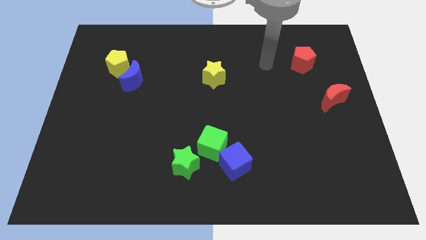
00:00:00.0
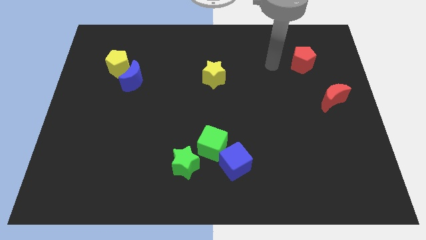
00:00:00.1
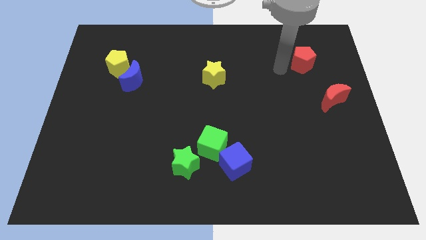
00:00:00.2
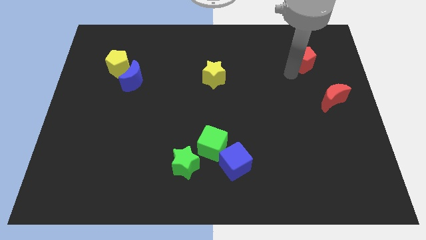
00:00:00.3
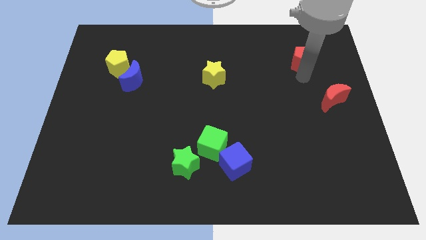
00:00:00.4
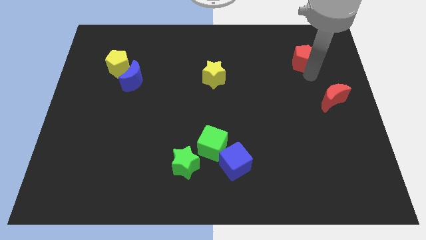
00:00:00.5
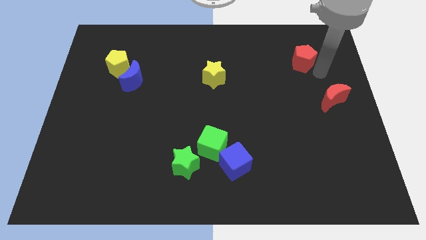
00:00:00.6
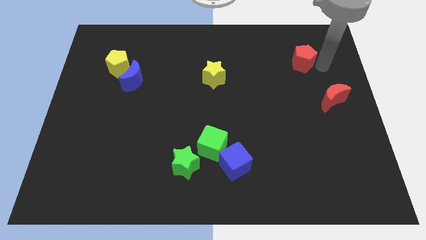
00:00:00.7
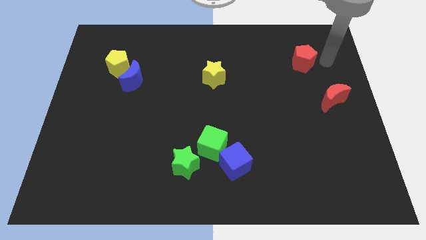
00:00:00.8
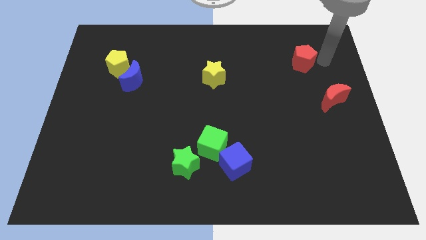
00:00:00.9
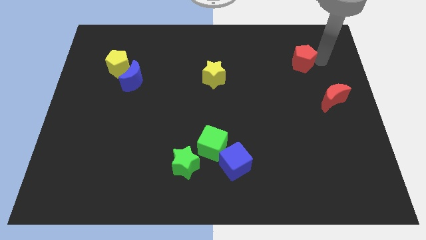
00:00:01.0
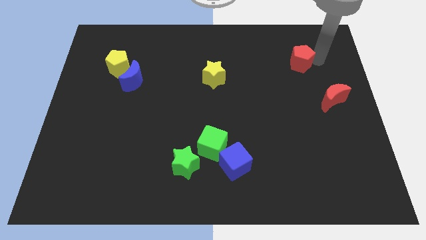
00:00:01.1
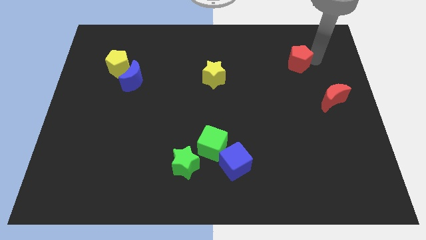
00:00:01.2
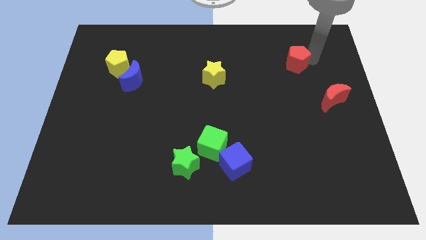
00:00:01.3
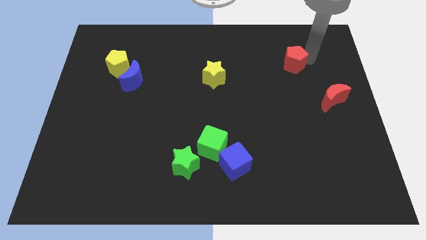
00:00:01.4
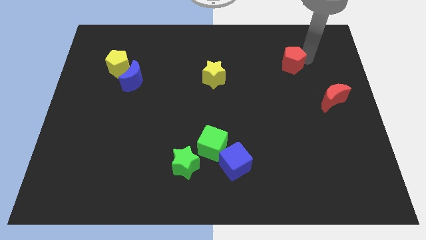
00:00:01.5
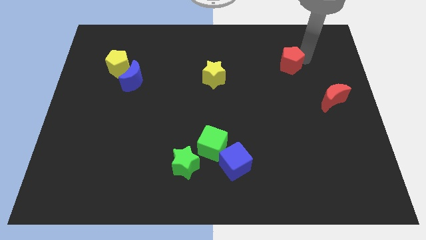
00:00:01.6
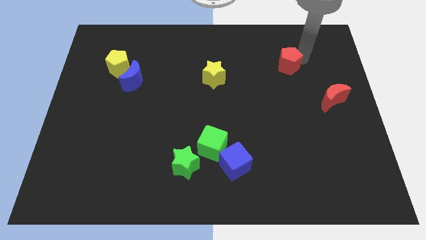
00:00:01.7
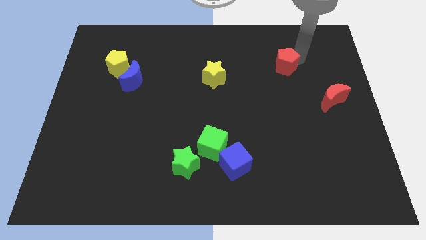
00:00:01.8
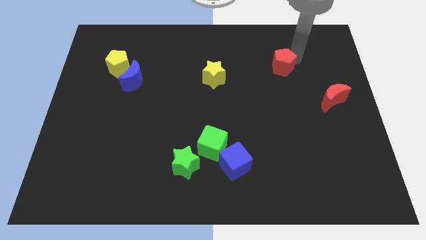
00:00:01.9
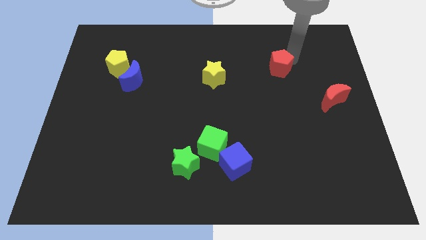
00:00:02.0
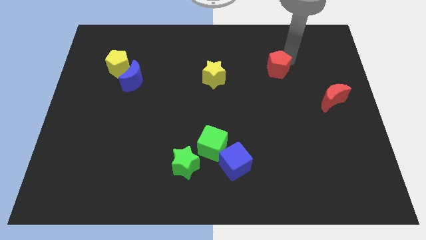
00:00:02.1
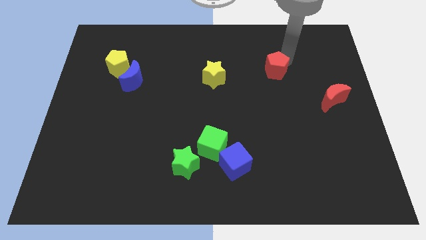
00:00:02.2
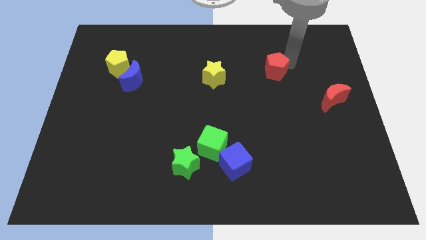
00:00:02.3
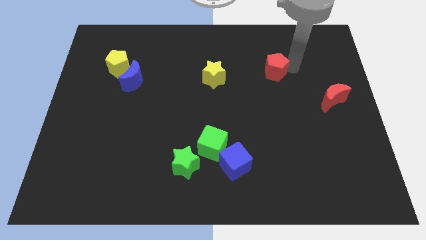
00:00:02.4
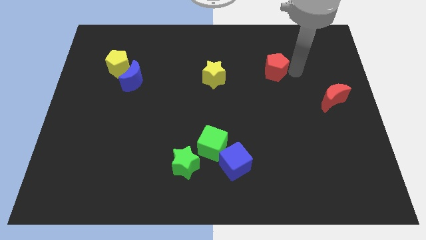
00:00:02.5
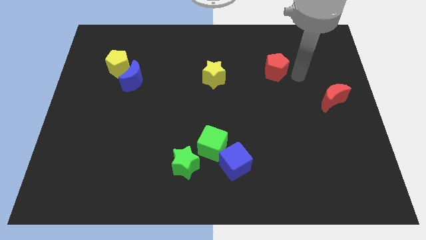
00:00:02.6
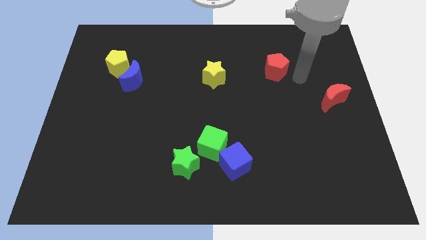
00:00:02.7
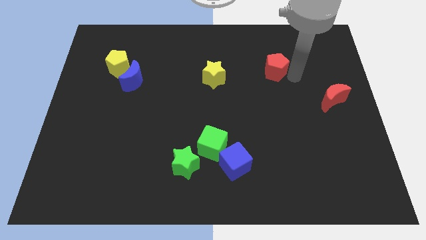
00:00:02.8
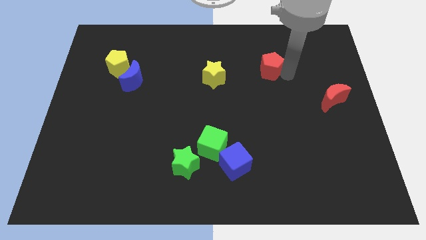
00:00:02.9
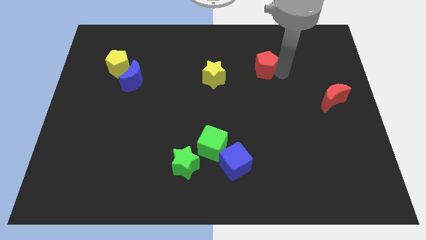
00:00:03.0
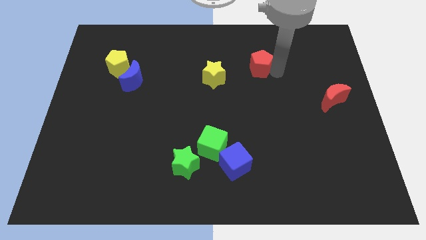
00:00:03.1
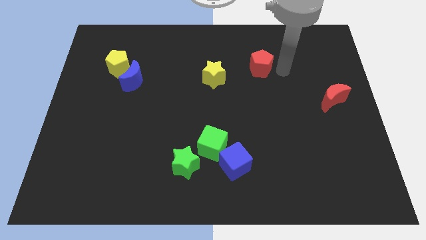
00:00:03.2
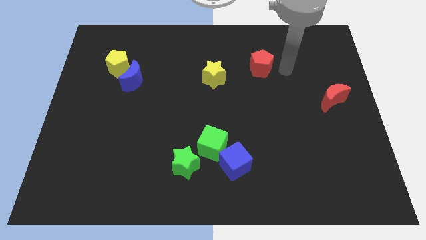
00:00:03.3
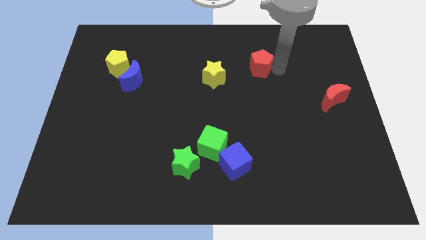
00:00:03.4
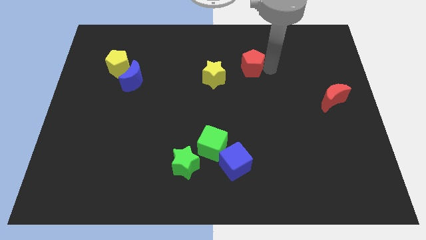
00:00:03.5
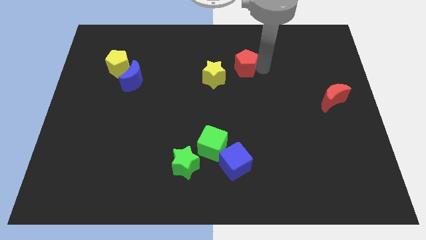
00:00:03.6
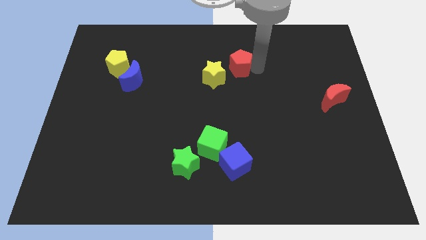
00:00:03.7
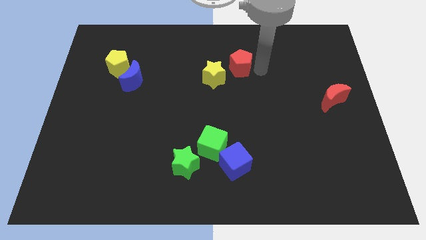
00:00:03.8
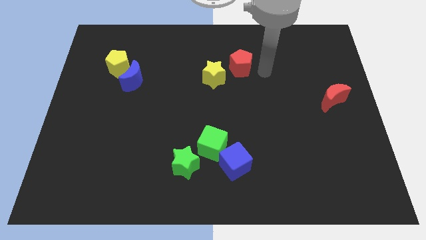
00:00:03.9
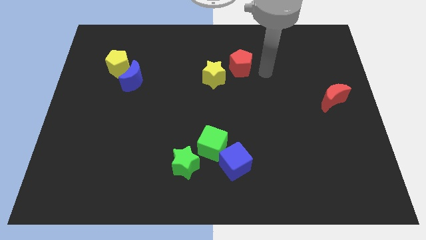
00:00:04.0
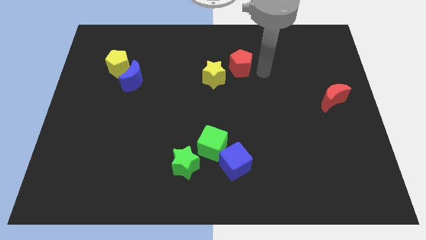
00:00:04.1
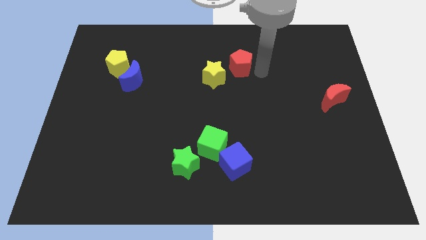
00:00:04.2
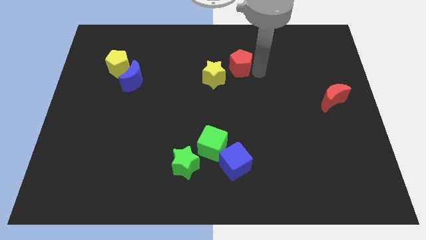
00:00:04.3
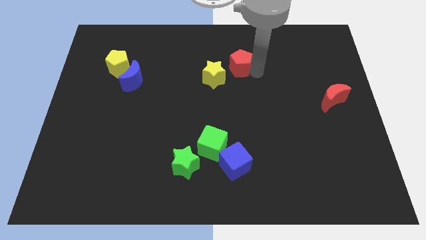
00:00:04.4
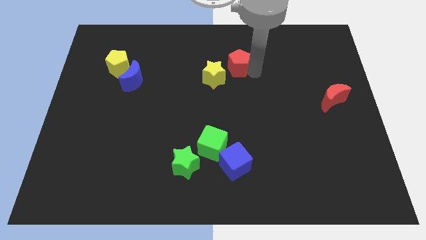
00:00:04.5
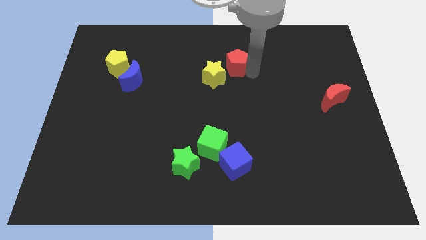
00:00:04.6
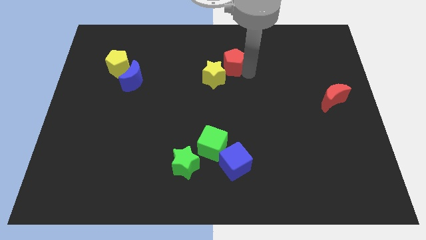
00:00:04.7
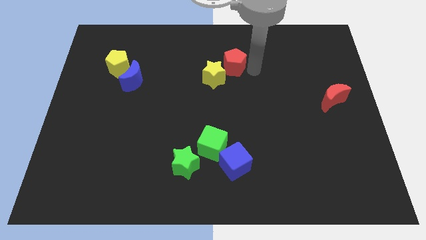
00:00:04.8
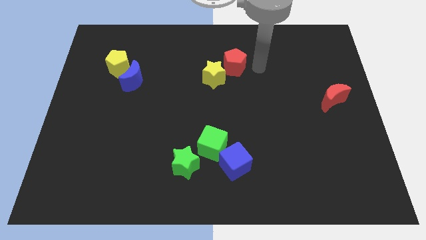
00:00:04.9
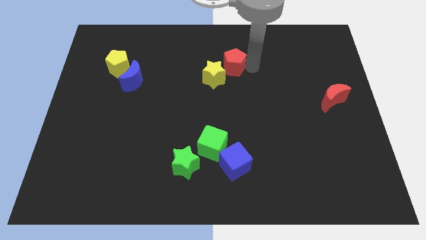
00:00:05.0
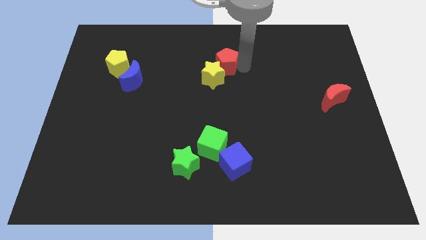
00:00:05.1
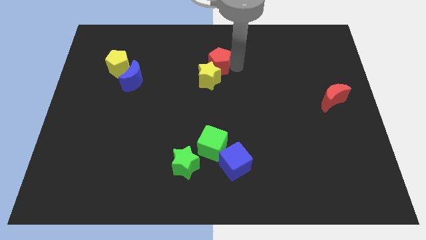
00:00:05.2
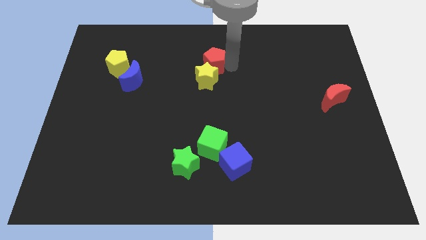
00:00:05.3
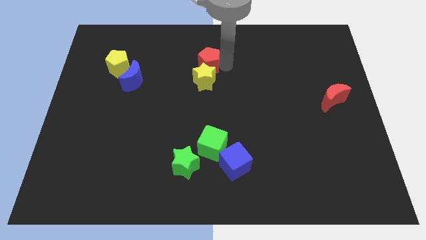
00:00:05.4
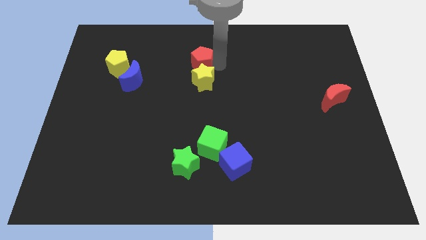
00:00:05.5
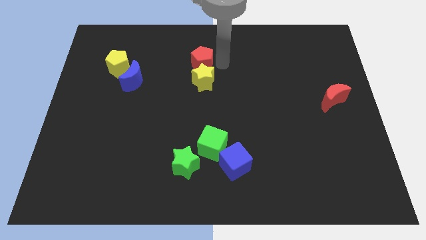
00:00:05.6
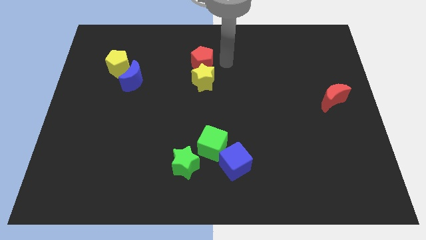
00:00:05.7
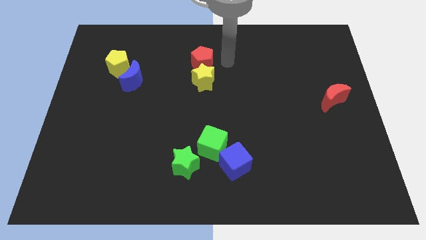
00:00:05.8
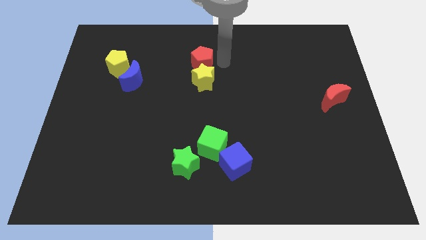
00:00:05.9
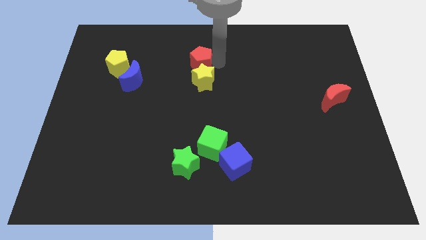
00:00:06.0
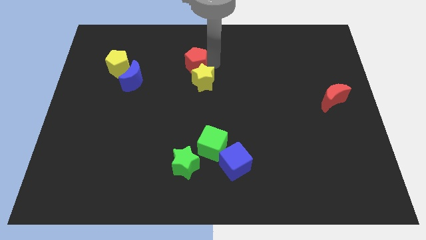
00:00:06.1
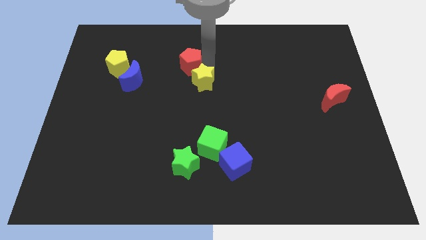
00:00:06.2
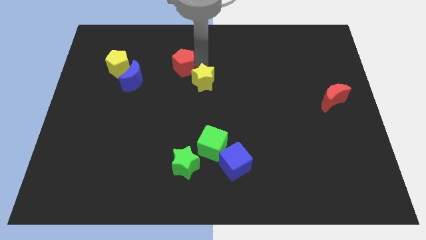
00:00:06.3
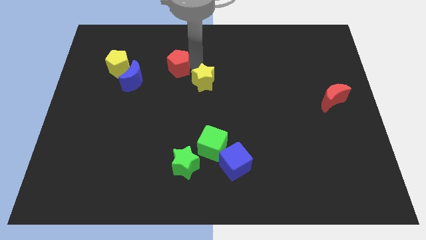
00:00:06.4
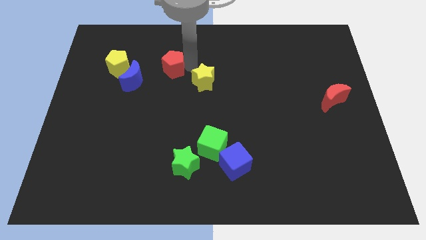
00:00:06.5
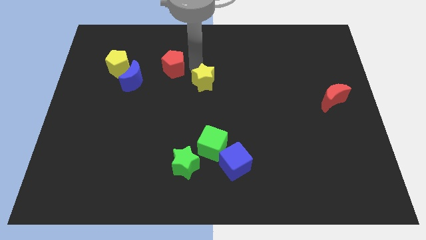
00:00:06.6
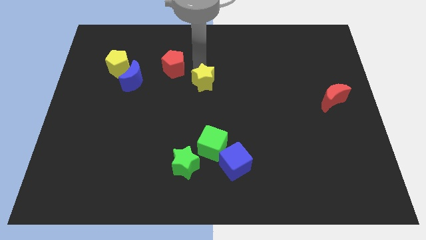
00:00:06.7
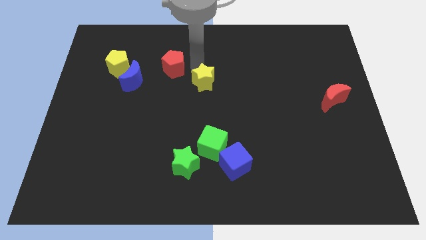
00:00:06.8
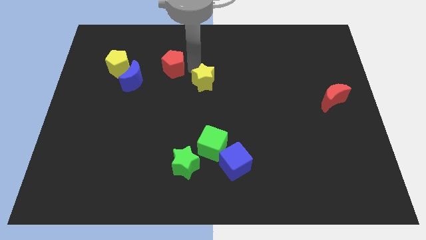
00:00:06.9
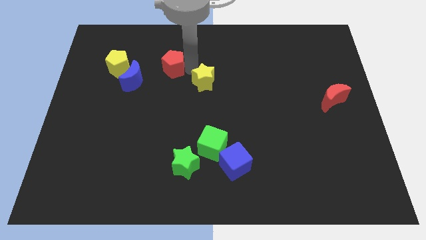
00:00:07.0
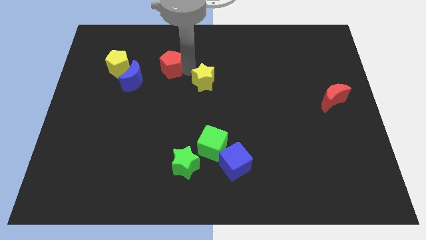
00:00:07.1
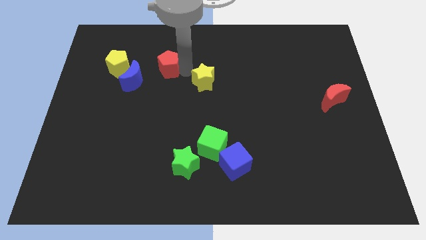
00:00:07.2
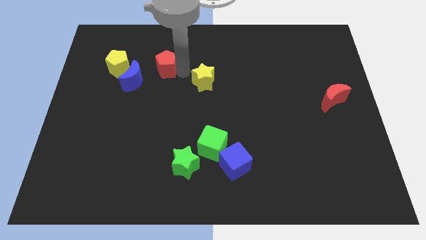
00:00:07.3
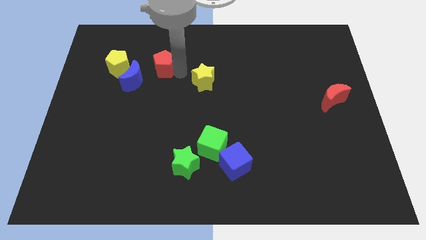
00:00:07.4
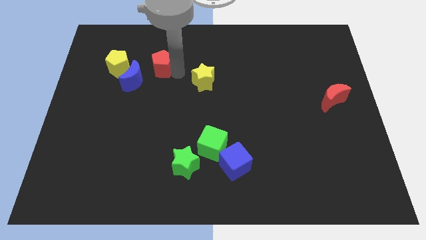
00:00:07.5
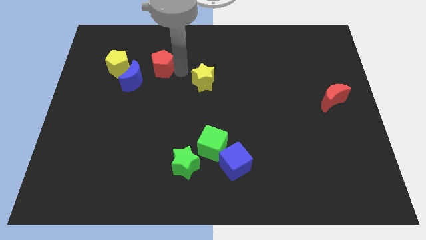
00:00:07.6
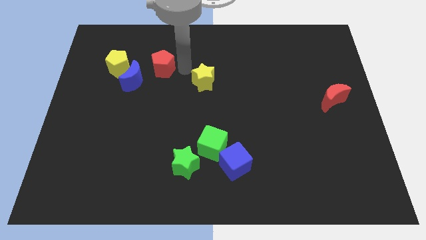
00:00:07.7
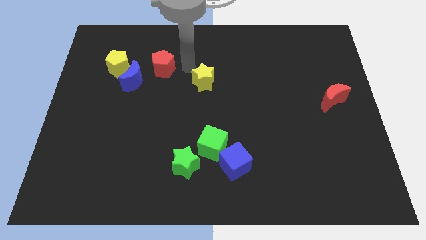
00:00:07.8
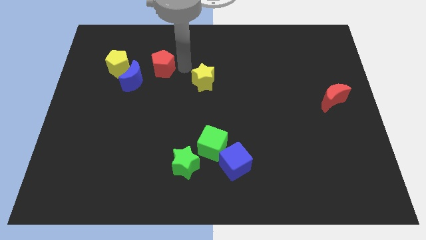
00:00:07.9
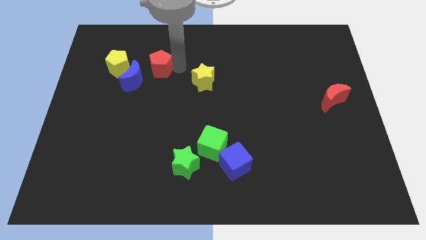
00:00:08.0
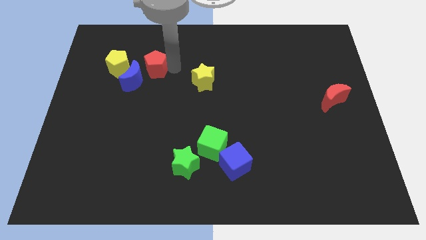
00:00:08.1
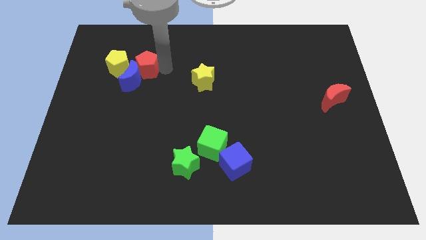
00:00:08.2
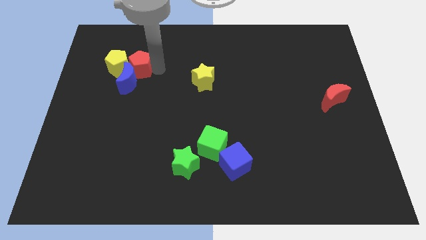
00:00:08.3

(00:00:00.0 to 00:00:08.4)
move the red pentagon to the yellow pentagon
